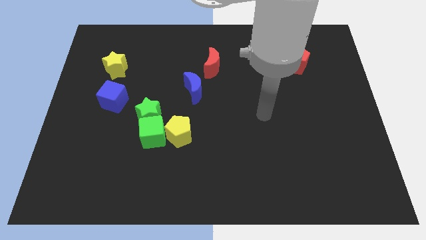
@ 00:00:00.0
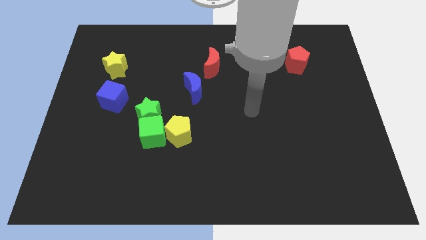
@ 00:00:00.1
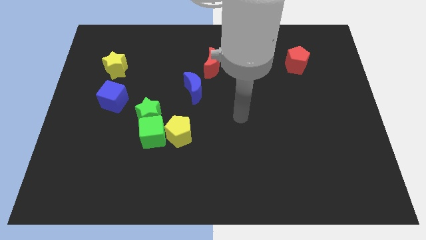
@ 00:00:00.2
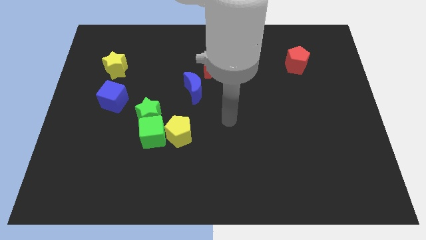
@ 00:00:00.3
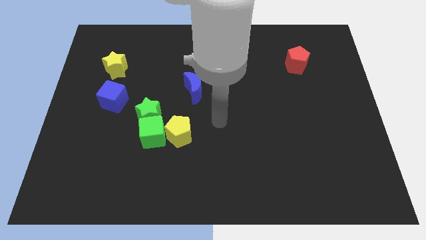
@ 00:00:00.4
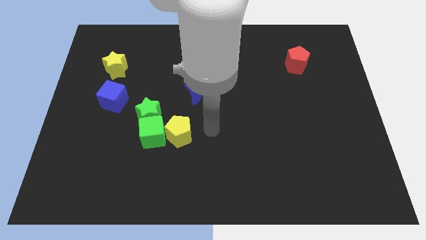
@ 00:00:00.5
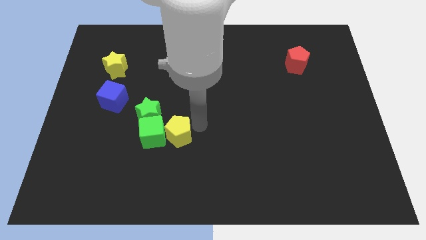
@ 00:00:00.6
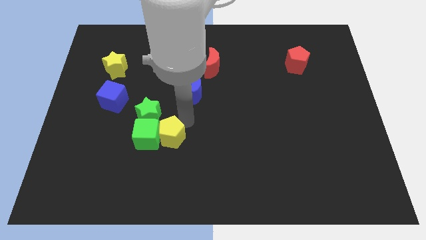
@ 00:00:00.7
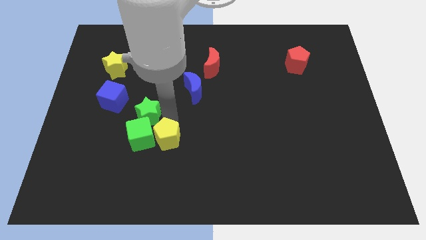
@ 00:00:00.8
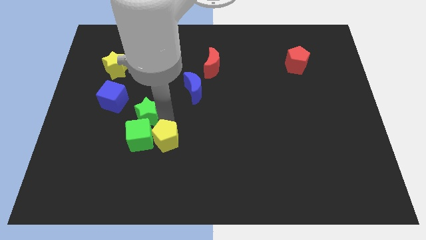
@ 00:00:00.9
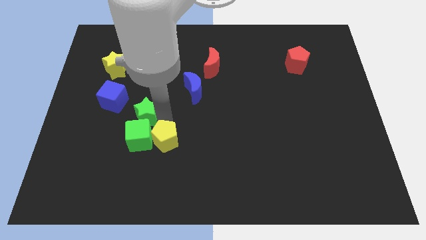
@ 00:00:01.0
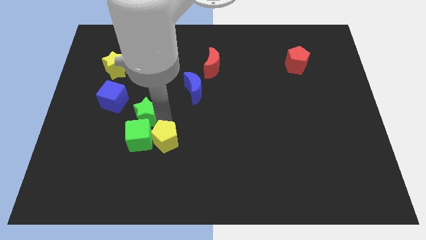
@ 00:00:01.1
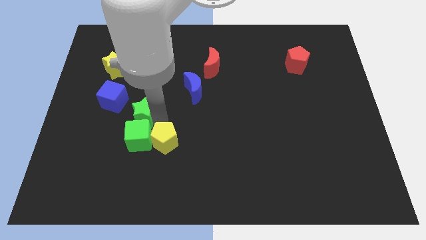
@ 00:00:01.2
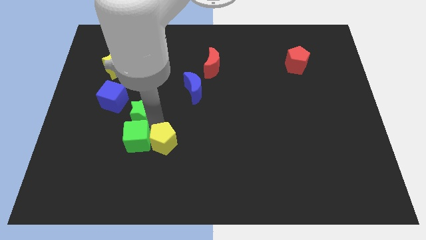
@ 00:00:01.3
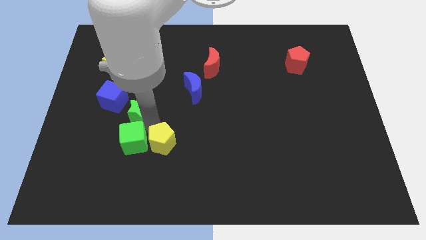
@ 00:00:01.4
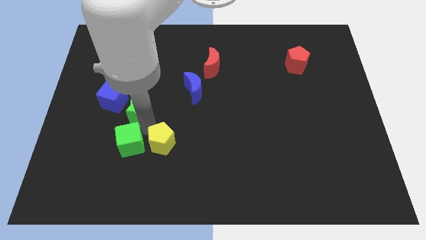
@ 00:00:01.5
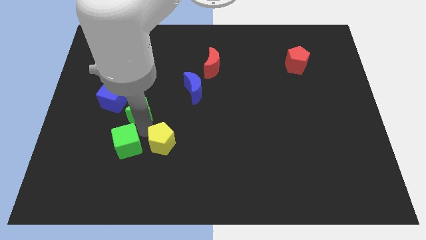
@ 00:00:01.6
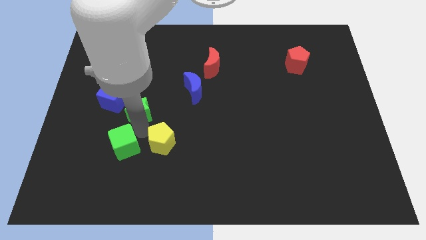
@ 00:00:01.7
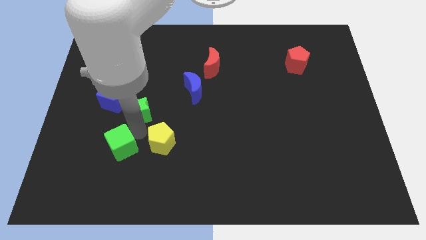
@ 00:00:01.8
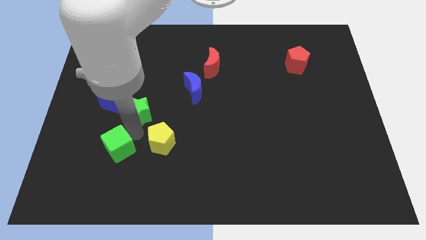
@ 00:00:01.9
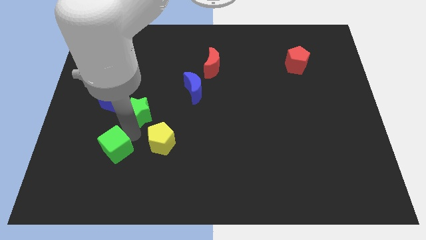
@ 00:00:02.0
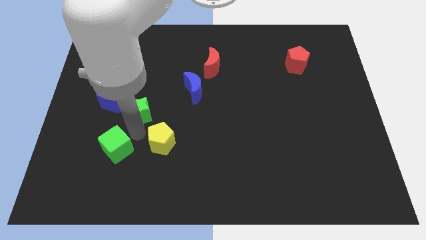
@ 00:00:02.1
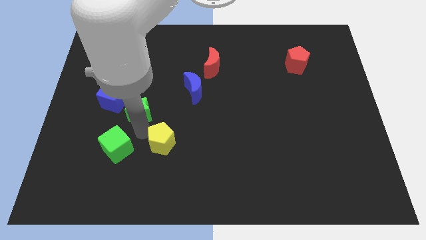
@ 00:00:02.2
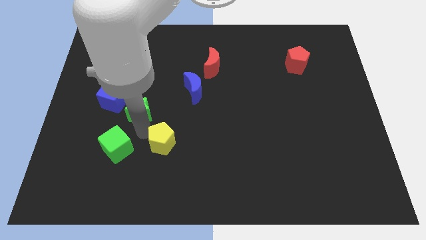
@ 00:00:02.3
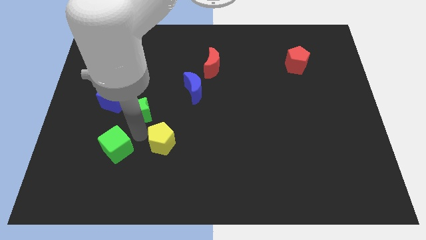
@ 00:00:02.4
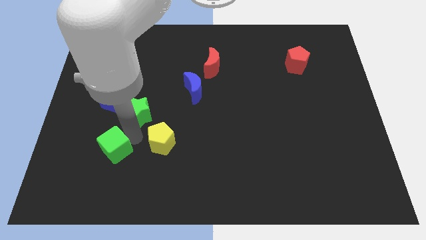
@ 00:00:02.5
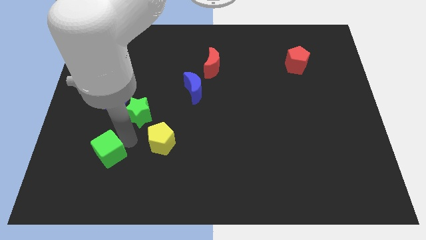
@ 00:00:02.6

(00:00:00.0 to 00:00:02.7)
separate the green cube from the green star and yellow pentagon

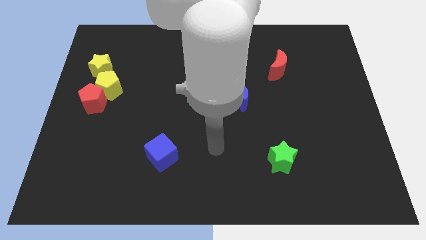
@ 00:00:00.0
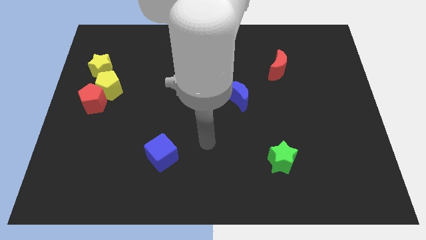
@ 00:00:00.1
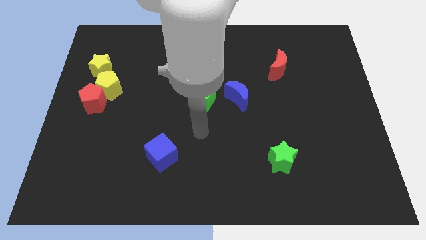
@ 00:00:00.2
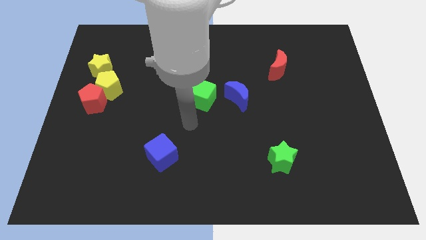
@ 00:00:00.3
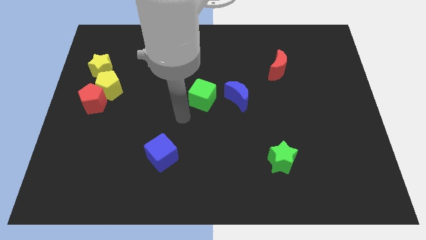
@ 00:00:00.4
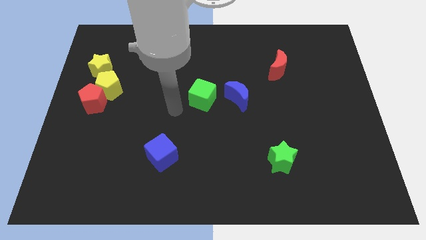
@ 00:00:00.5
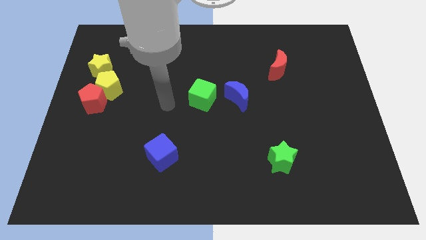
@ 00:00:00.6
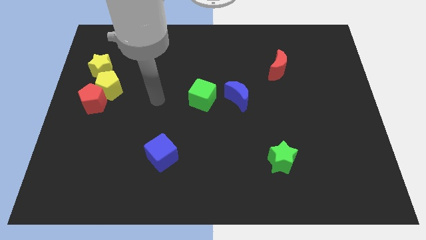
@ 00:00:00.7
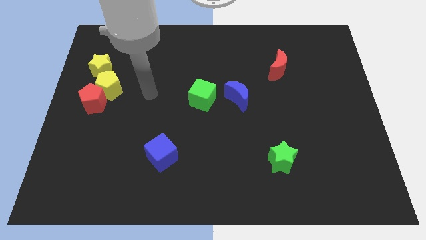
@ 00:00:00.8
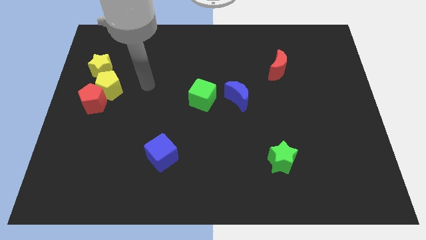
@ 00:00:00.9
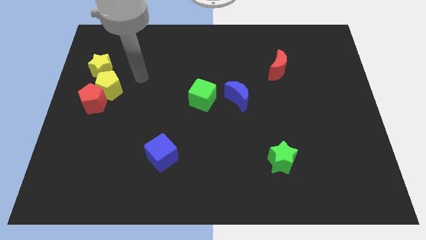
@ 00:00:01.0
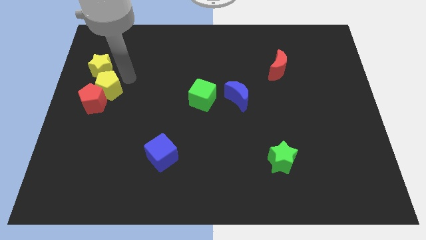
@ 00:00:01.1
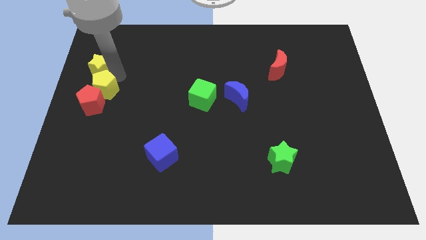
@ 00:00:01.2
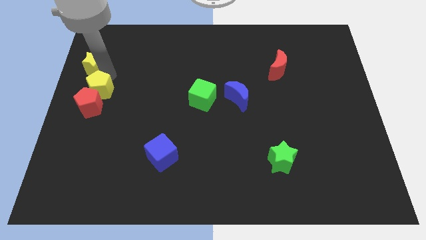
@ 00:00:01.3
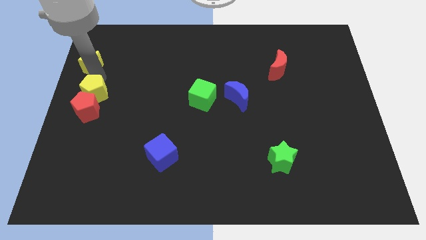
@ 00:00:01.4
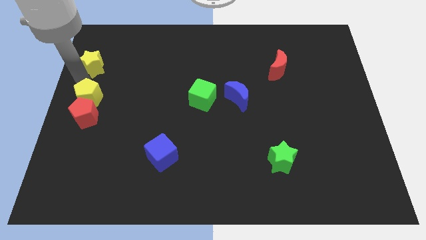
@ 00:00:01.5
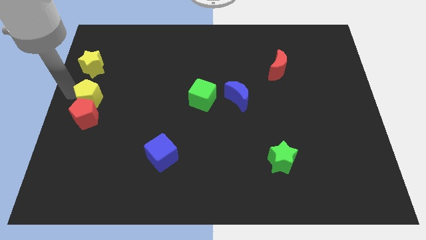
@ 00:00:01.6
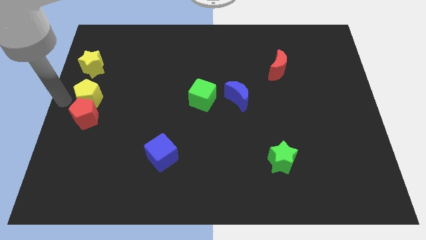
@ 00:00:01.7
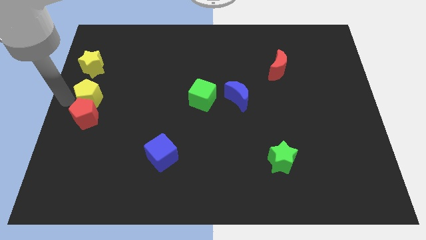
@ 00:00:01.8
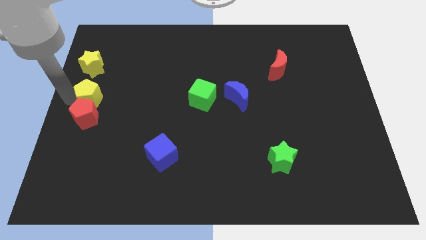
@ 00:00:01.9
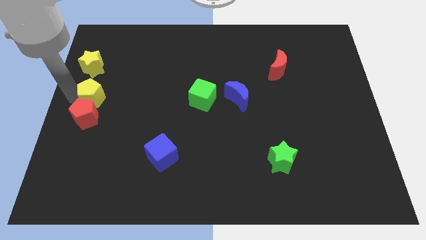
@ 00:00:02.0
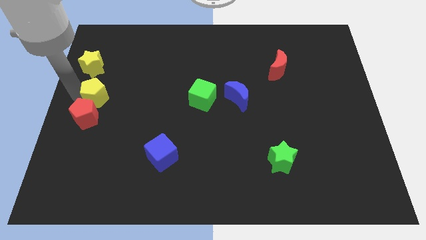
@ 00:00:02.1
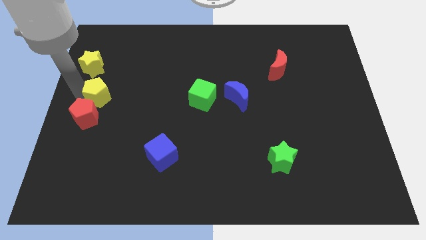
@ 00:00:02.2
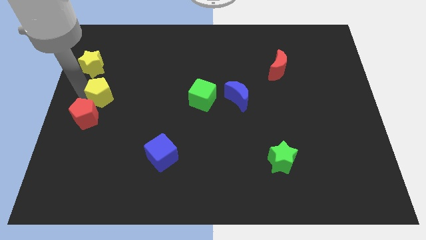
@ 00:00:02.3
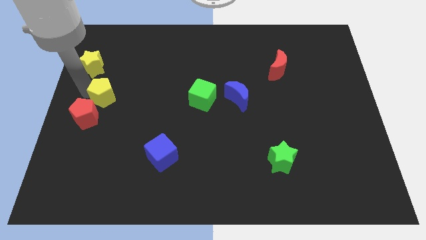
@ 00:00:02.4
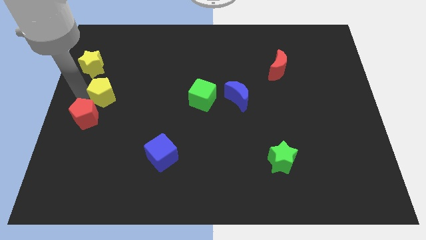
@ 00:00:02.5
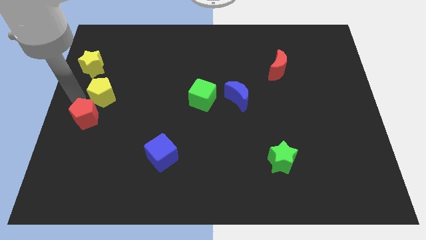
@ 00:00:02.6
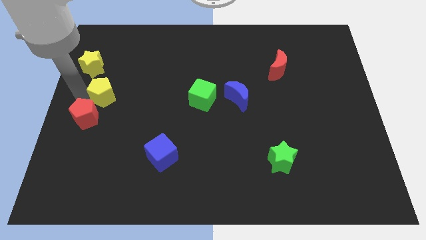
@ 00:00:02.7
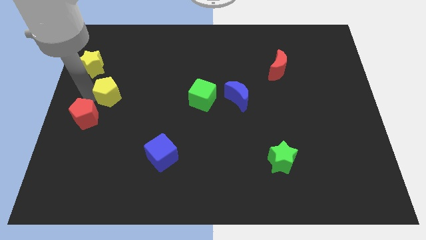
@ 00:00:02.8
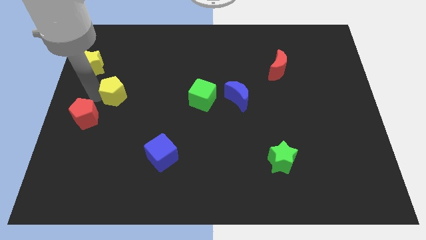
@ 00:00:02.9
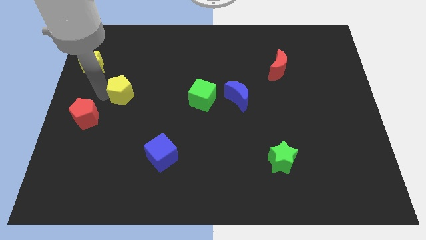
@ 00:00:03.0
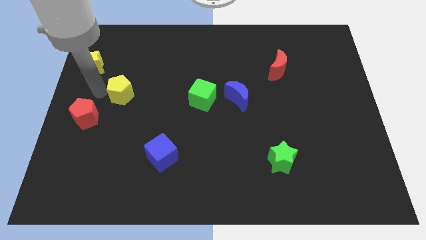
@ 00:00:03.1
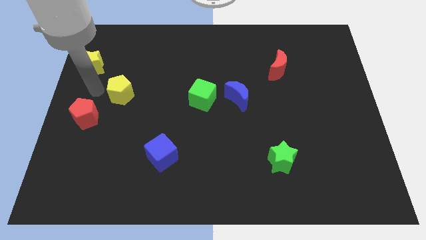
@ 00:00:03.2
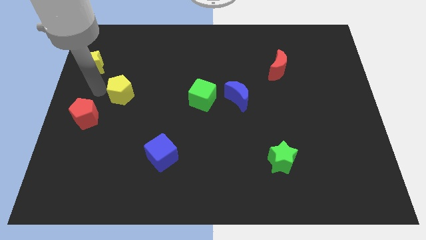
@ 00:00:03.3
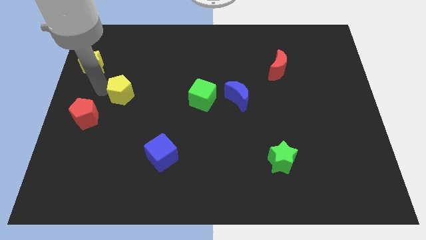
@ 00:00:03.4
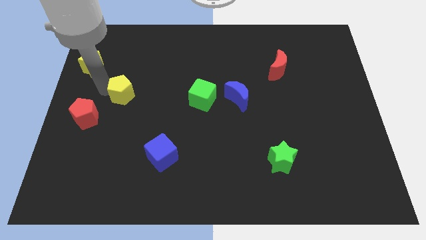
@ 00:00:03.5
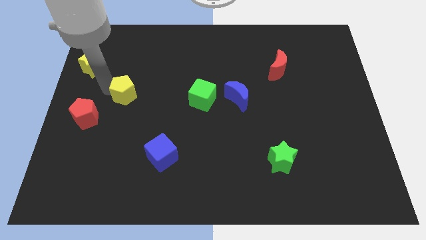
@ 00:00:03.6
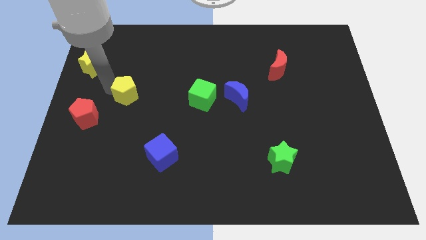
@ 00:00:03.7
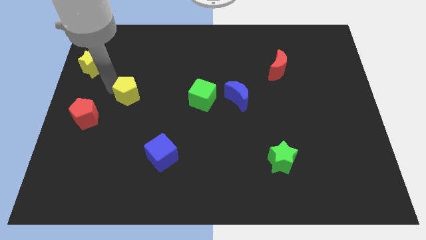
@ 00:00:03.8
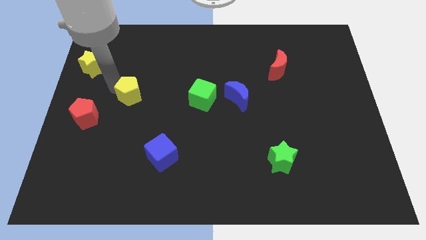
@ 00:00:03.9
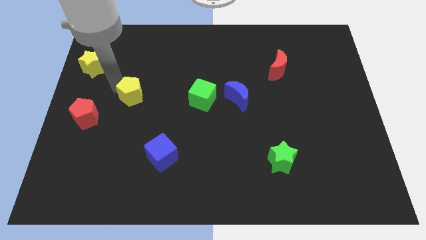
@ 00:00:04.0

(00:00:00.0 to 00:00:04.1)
separate the yellow pentagon from the red pentagon and yellow star

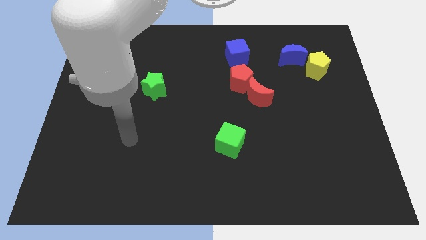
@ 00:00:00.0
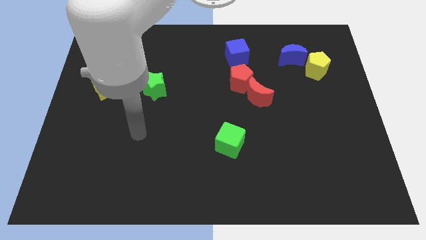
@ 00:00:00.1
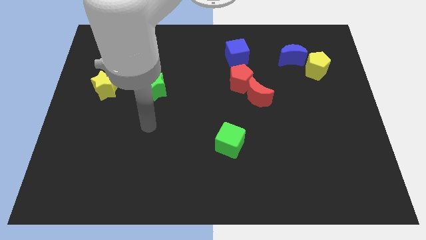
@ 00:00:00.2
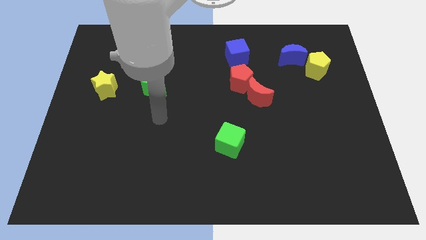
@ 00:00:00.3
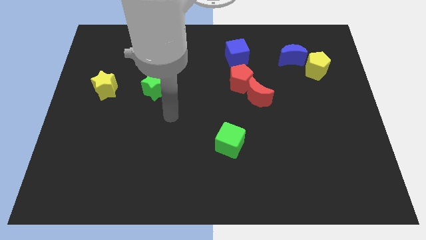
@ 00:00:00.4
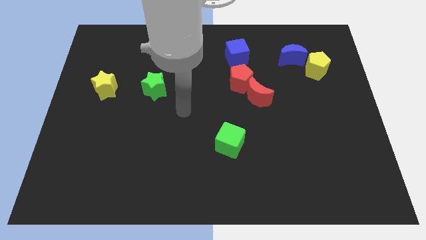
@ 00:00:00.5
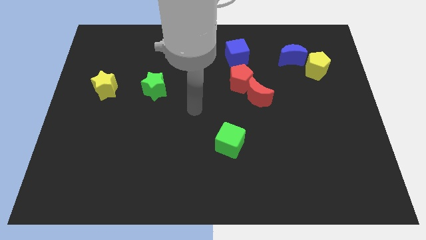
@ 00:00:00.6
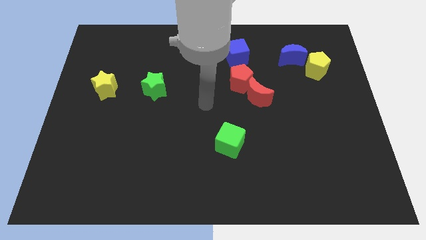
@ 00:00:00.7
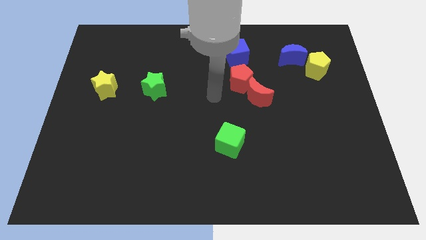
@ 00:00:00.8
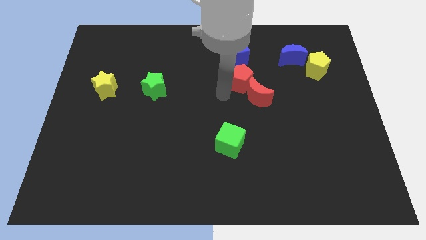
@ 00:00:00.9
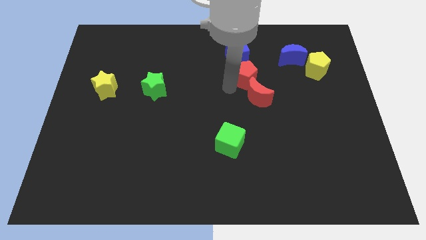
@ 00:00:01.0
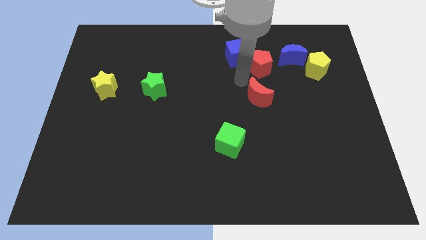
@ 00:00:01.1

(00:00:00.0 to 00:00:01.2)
separate the red moon from the red pentagon

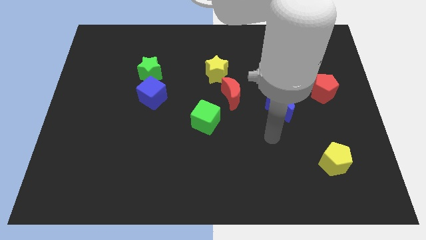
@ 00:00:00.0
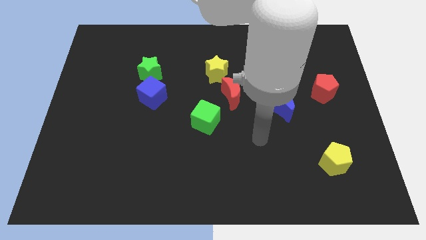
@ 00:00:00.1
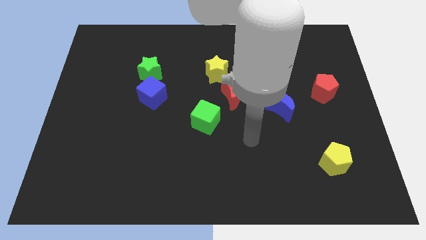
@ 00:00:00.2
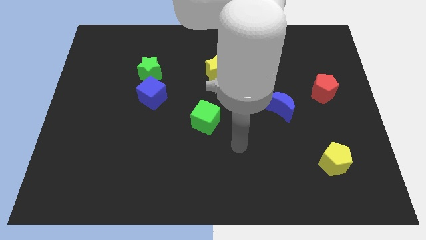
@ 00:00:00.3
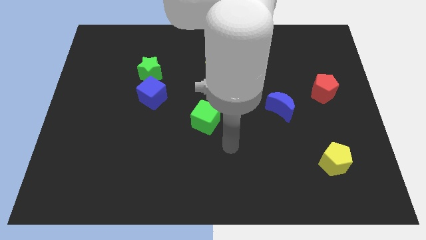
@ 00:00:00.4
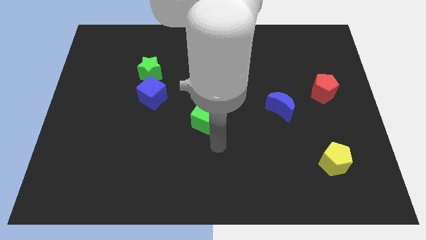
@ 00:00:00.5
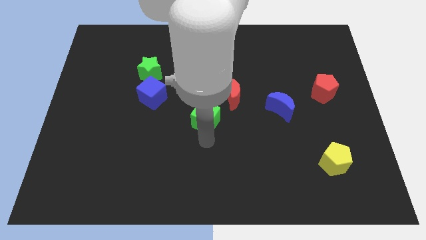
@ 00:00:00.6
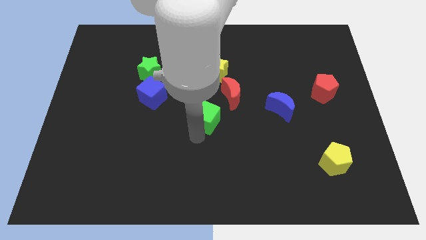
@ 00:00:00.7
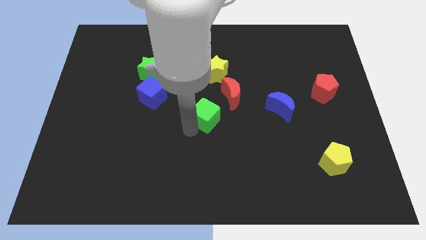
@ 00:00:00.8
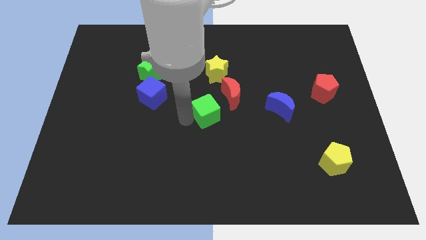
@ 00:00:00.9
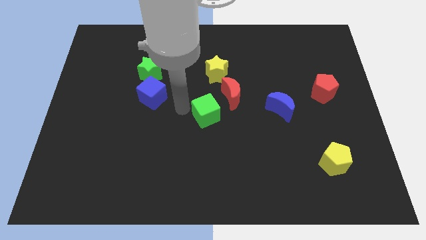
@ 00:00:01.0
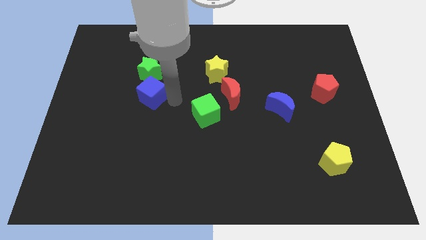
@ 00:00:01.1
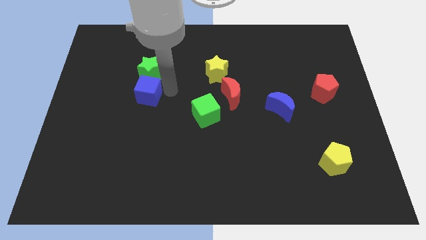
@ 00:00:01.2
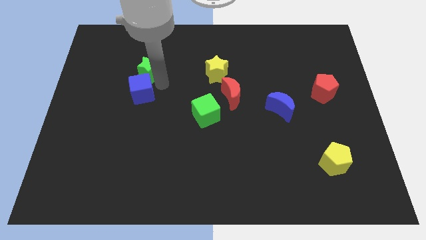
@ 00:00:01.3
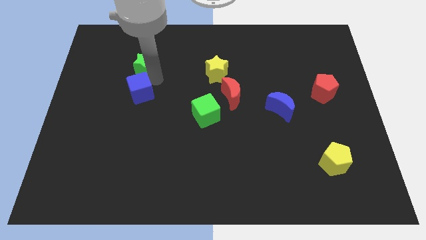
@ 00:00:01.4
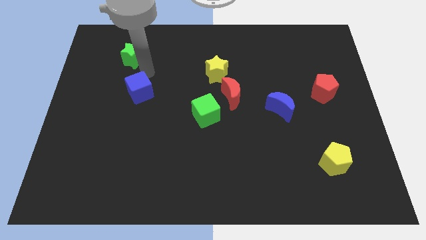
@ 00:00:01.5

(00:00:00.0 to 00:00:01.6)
separate the blue cube from the green star
